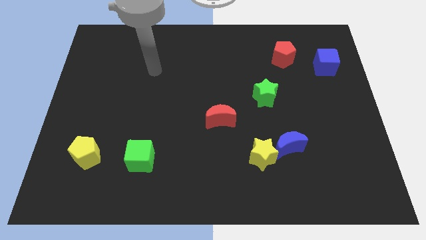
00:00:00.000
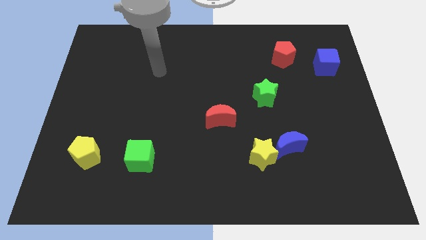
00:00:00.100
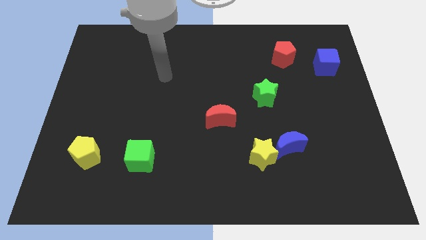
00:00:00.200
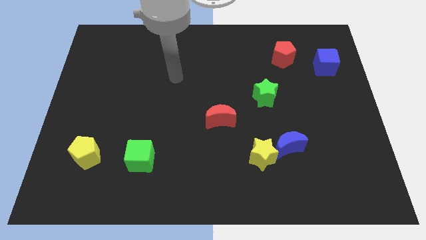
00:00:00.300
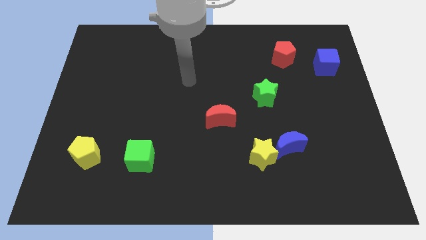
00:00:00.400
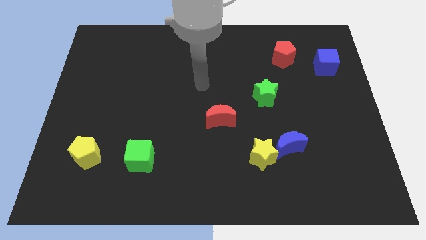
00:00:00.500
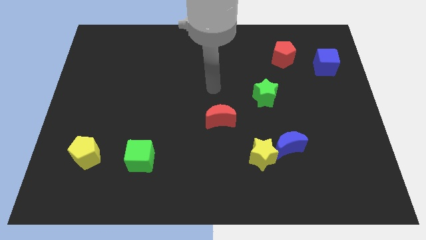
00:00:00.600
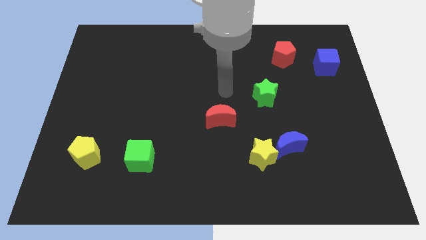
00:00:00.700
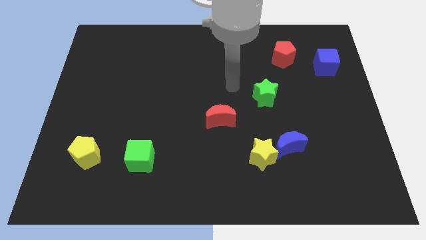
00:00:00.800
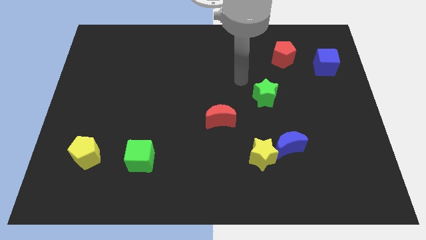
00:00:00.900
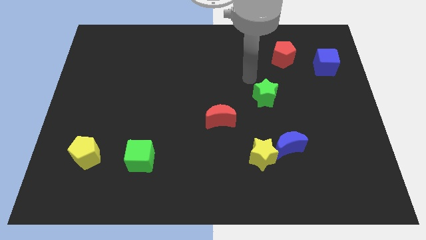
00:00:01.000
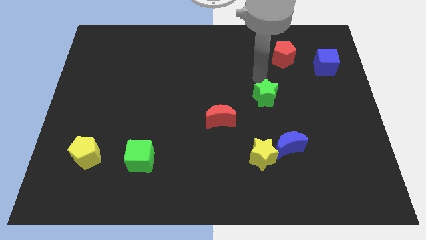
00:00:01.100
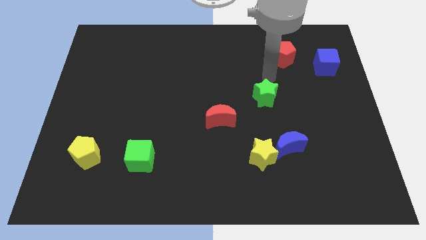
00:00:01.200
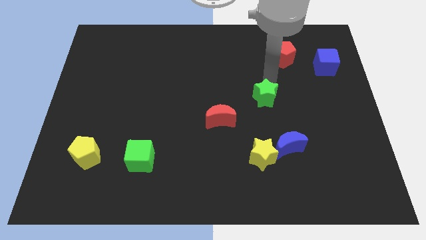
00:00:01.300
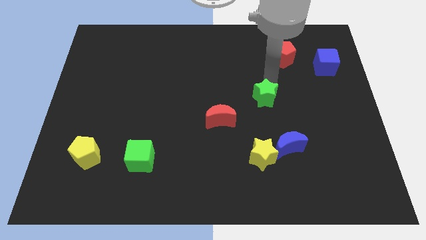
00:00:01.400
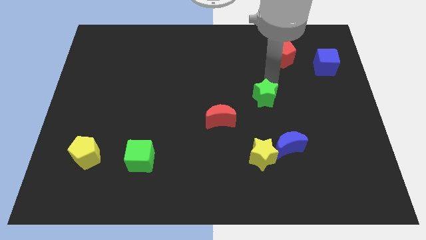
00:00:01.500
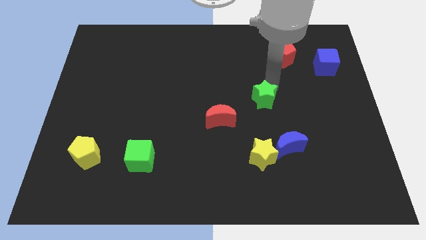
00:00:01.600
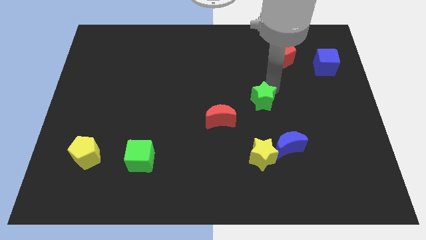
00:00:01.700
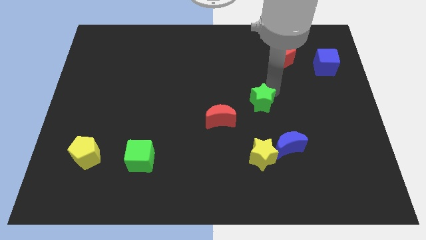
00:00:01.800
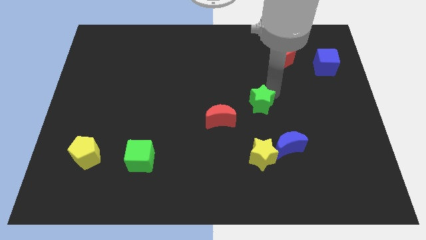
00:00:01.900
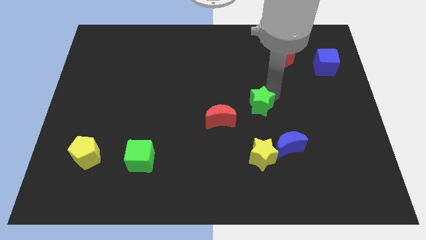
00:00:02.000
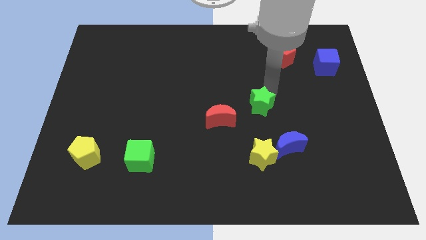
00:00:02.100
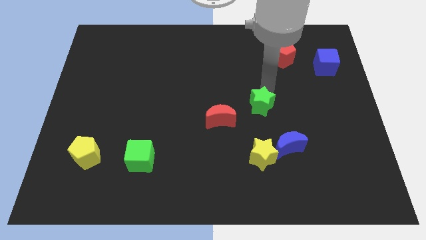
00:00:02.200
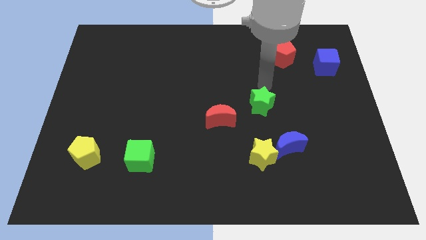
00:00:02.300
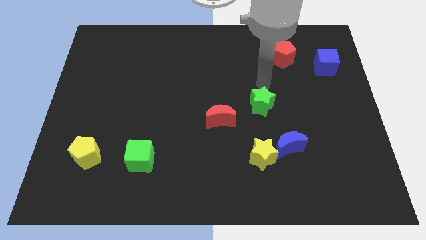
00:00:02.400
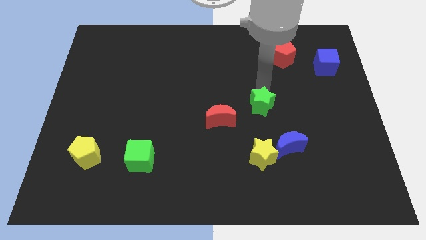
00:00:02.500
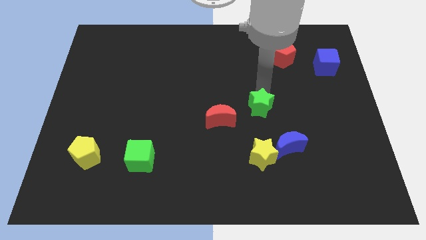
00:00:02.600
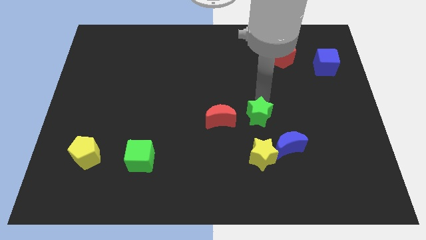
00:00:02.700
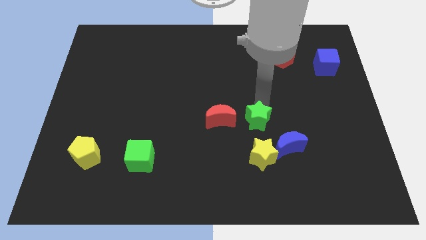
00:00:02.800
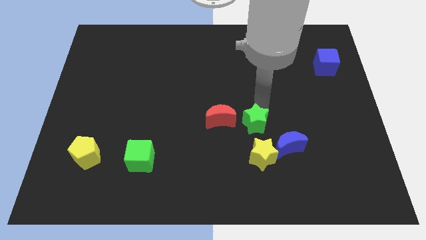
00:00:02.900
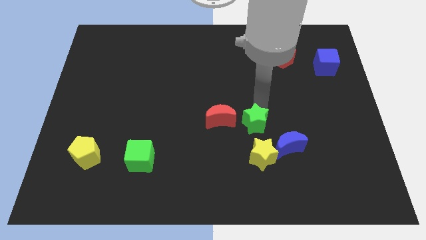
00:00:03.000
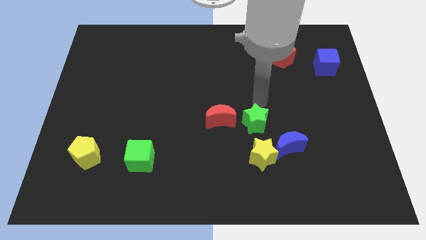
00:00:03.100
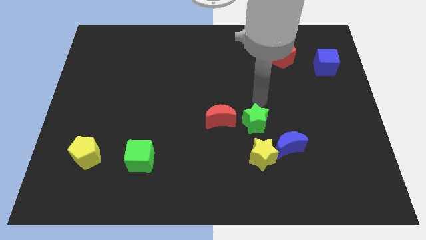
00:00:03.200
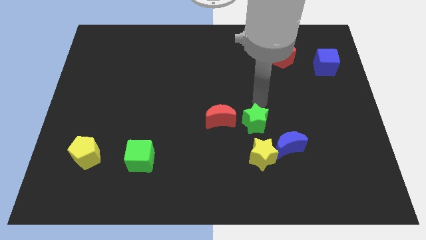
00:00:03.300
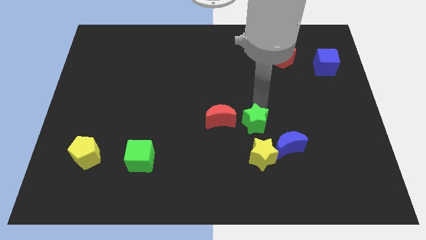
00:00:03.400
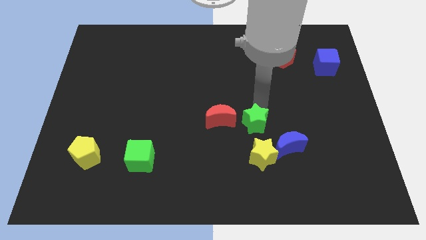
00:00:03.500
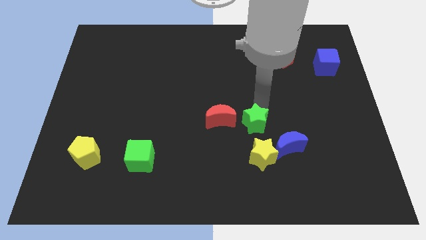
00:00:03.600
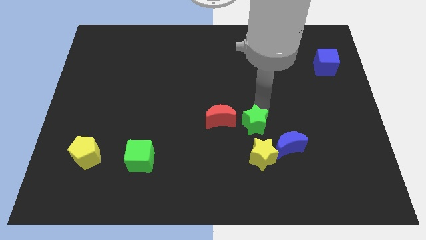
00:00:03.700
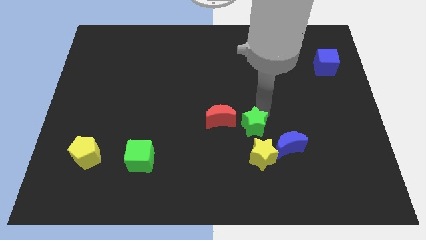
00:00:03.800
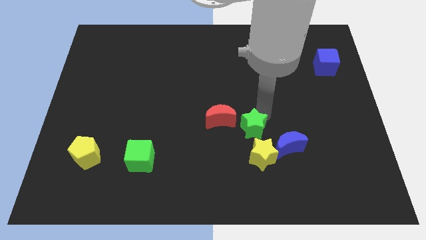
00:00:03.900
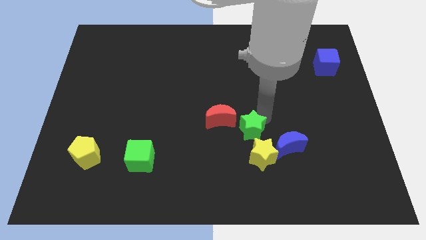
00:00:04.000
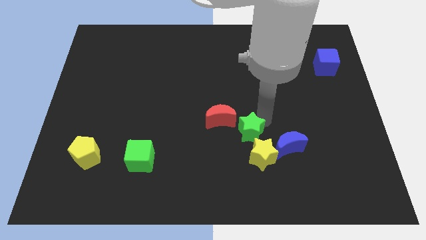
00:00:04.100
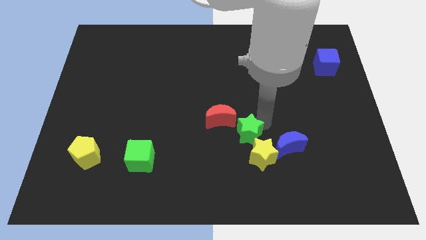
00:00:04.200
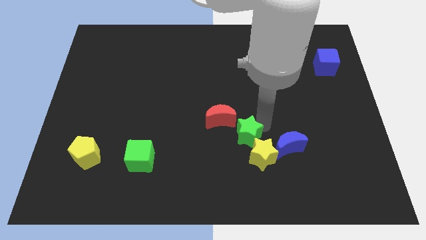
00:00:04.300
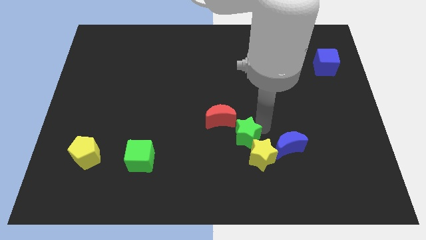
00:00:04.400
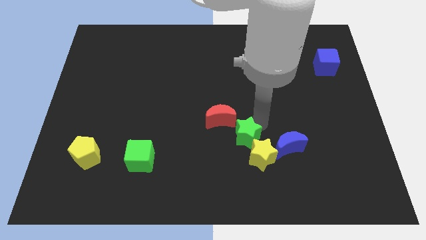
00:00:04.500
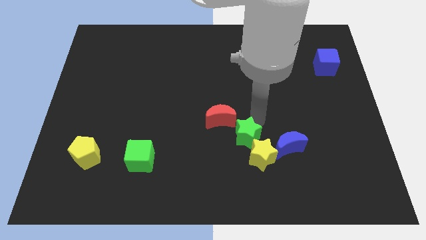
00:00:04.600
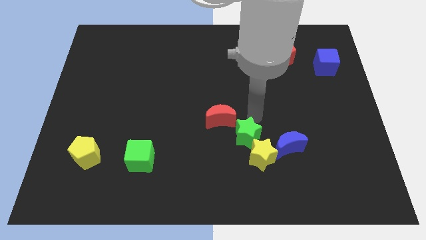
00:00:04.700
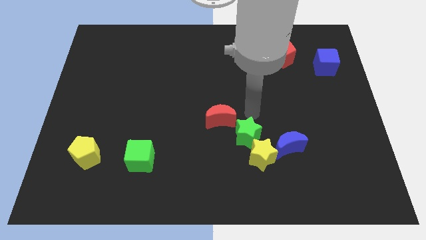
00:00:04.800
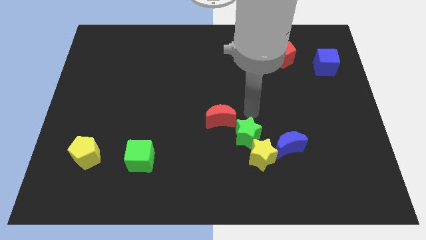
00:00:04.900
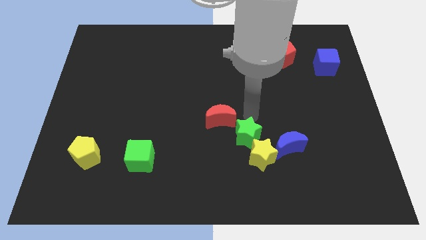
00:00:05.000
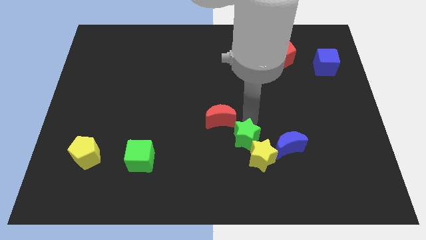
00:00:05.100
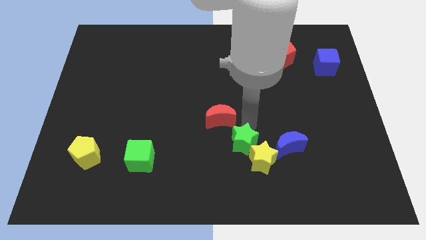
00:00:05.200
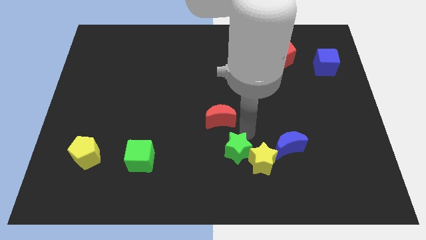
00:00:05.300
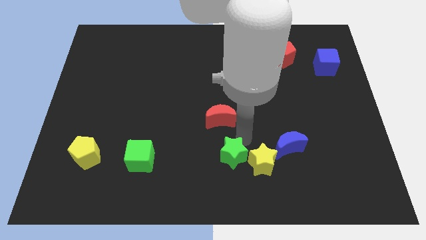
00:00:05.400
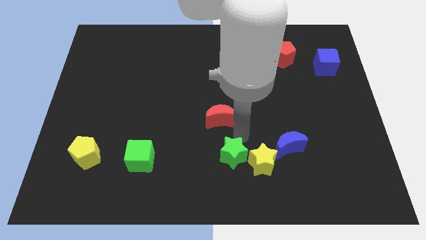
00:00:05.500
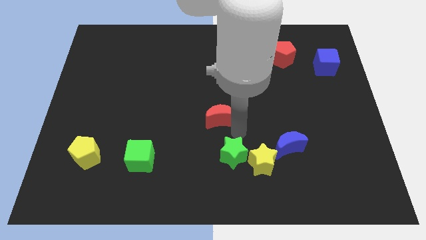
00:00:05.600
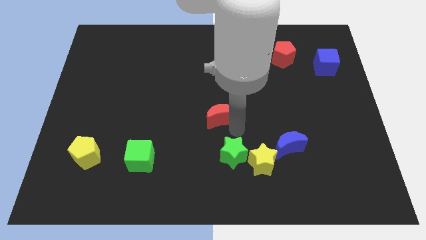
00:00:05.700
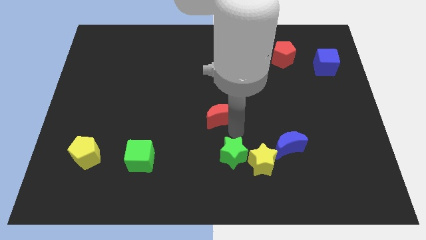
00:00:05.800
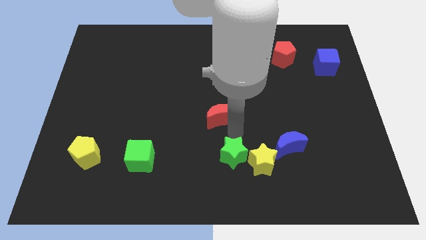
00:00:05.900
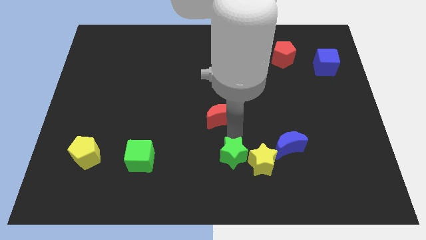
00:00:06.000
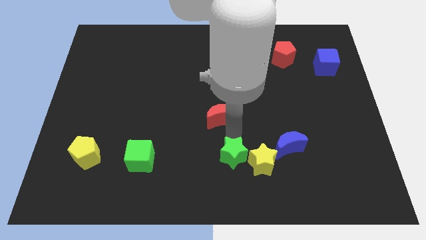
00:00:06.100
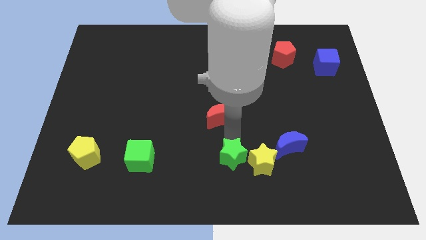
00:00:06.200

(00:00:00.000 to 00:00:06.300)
push the green star to the bottom

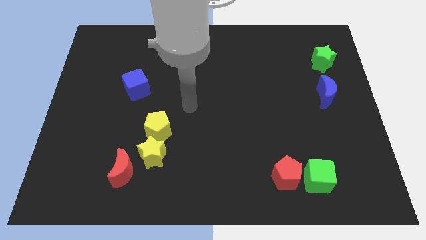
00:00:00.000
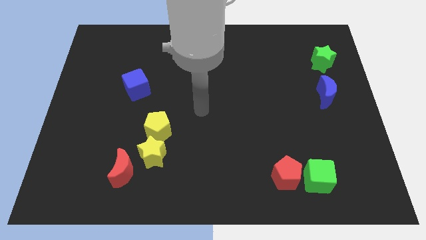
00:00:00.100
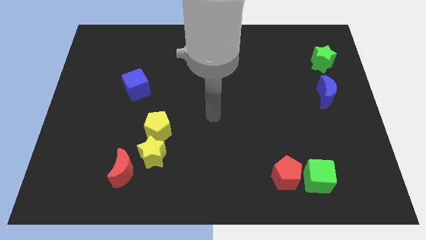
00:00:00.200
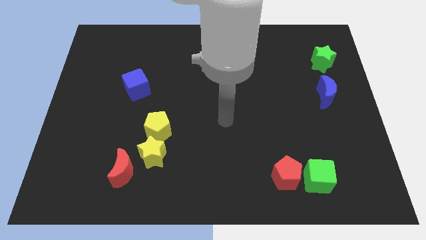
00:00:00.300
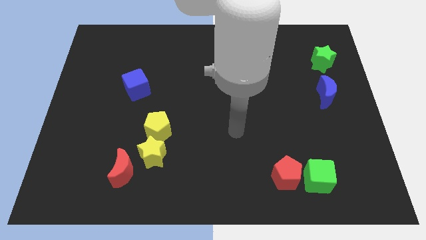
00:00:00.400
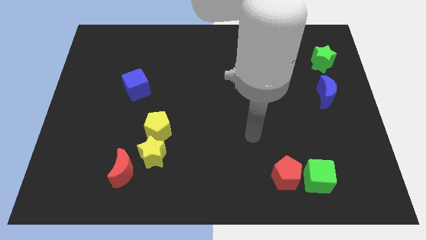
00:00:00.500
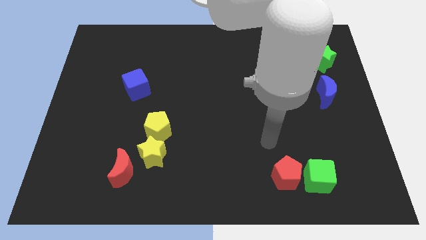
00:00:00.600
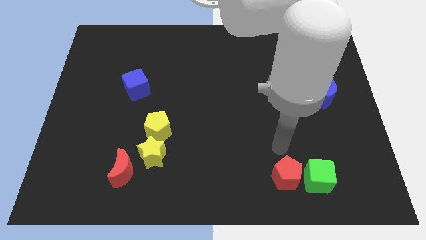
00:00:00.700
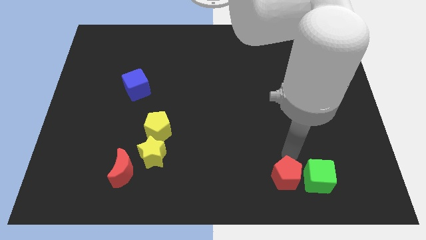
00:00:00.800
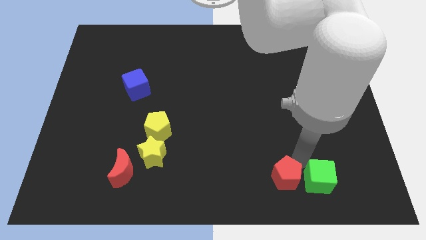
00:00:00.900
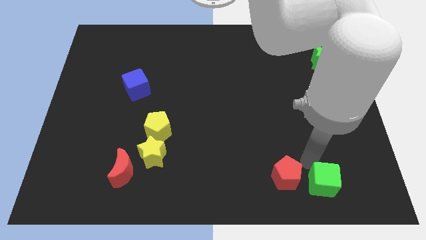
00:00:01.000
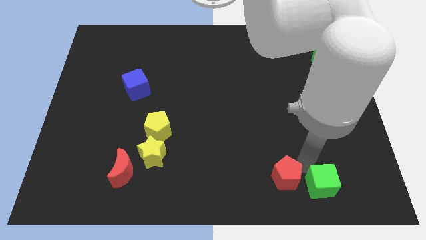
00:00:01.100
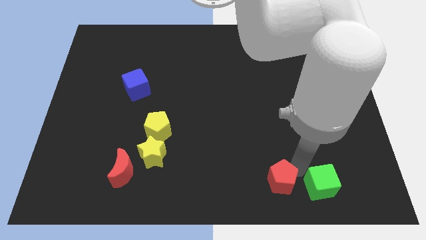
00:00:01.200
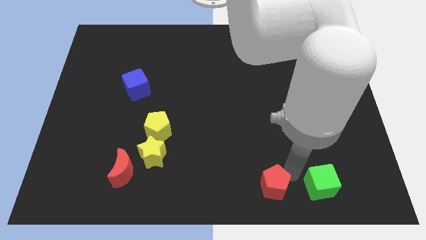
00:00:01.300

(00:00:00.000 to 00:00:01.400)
slide the red pentagon to the bottom side

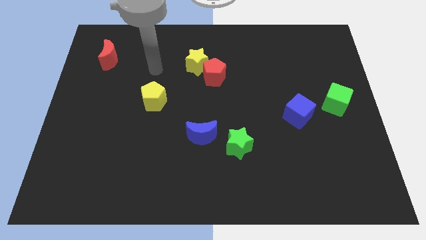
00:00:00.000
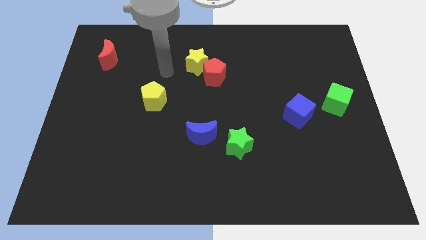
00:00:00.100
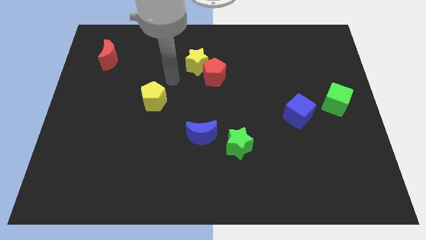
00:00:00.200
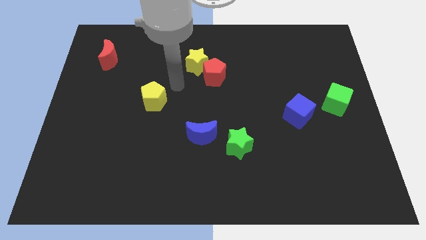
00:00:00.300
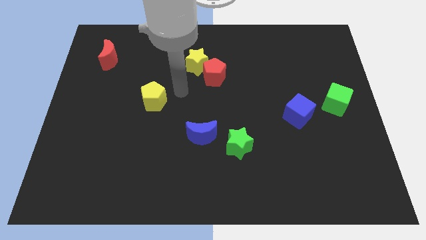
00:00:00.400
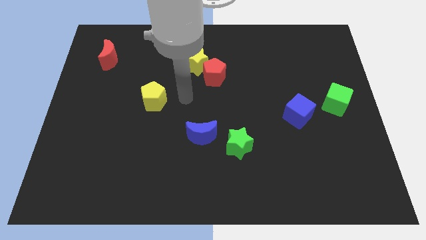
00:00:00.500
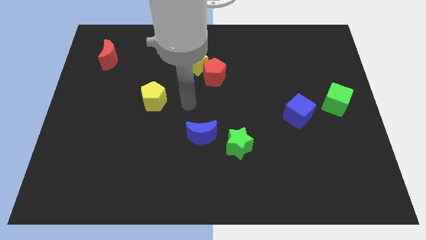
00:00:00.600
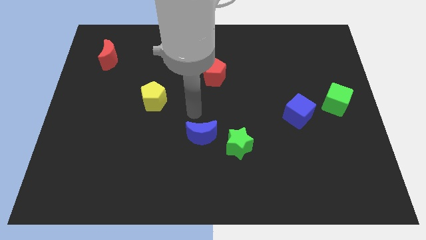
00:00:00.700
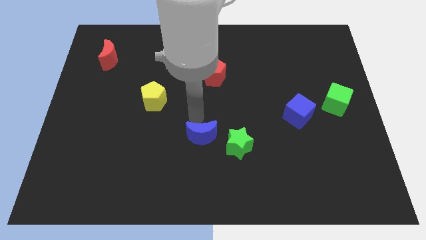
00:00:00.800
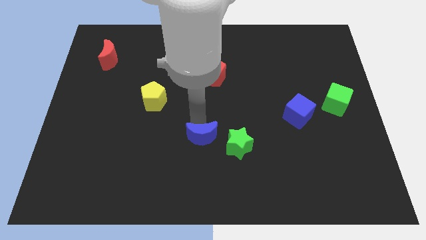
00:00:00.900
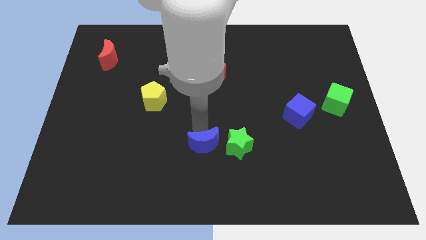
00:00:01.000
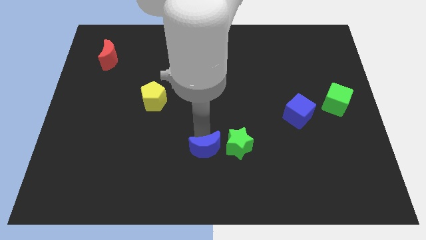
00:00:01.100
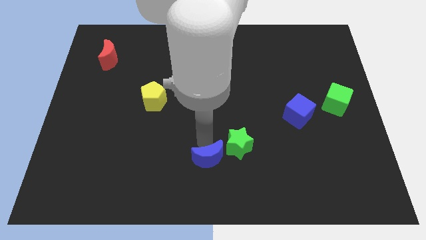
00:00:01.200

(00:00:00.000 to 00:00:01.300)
push the blue moon to the bottom
